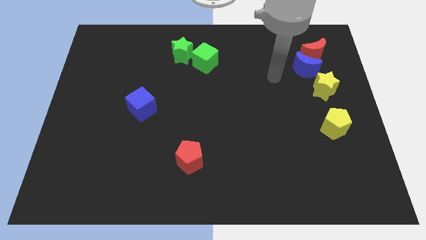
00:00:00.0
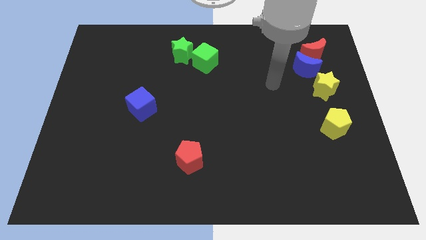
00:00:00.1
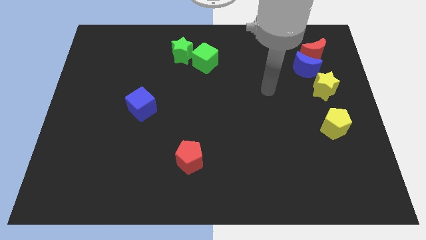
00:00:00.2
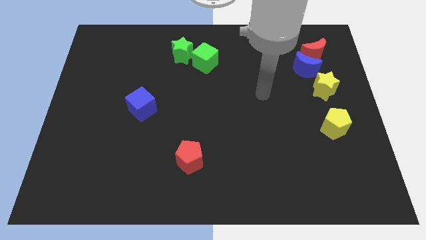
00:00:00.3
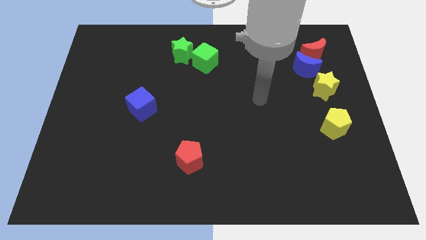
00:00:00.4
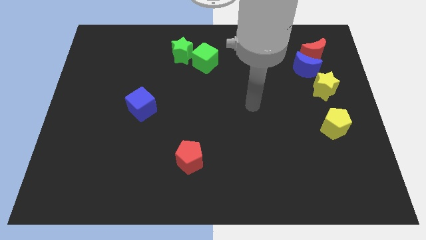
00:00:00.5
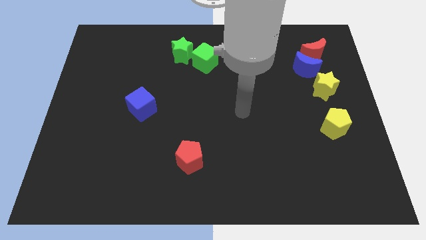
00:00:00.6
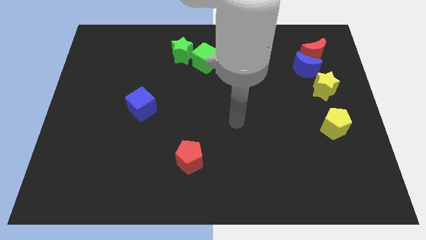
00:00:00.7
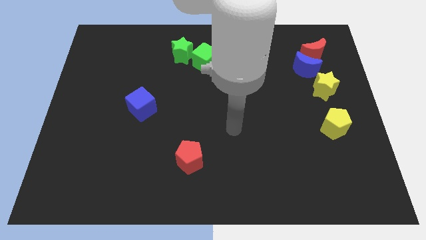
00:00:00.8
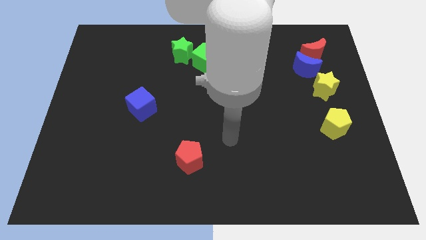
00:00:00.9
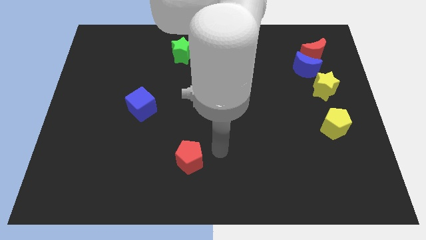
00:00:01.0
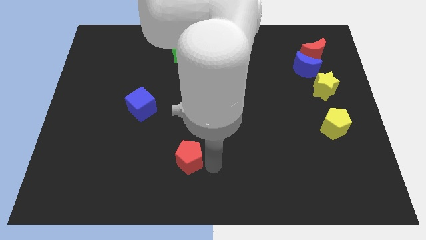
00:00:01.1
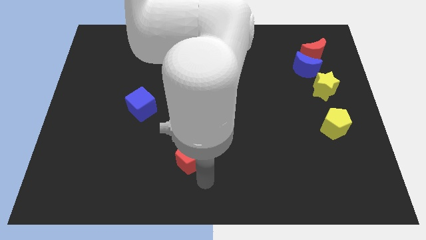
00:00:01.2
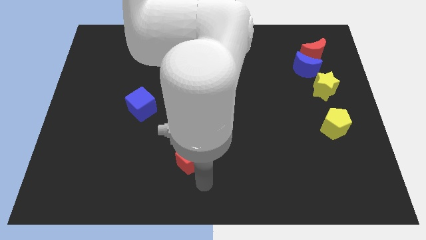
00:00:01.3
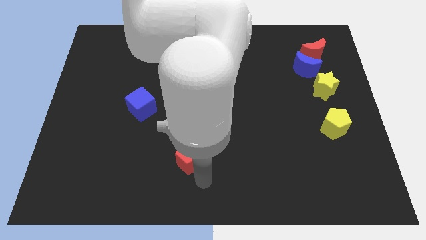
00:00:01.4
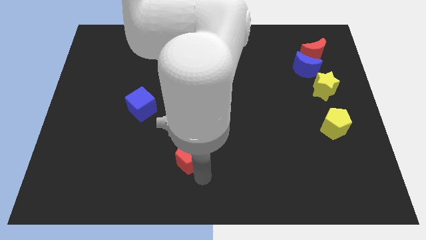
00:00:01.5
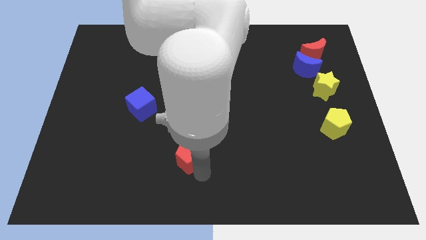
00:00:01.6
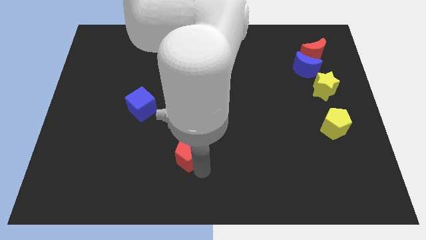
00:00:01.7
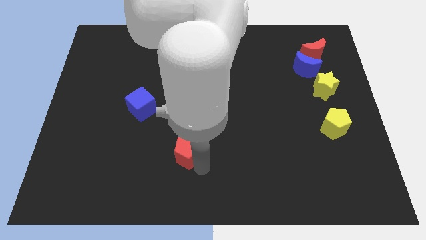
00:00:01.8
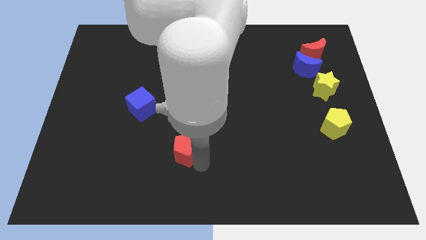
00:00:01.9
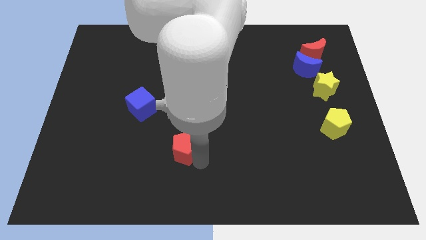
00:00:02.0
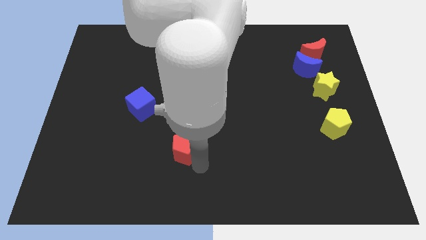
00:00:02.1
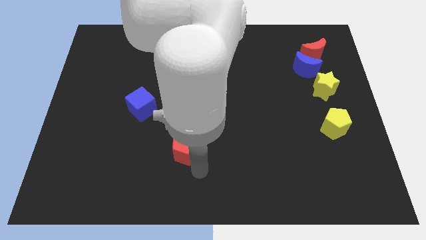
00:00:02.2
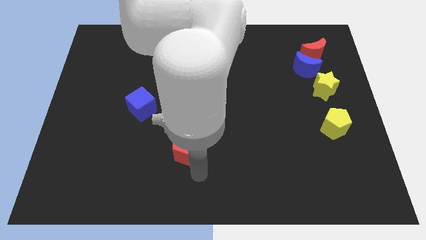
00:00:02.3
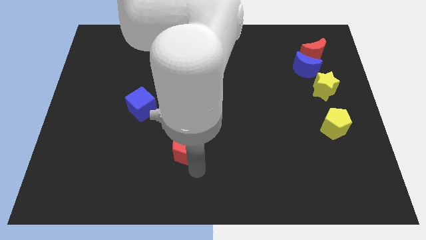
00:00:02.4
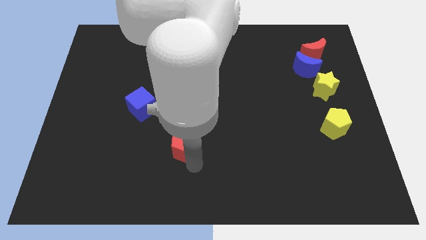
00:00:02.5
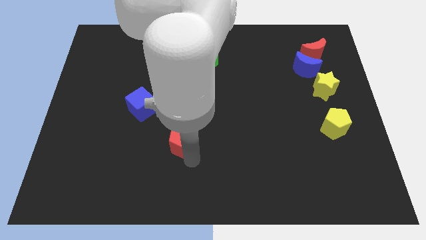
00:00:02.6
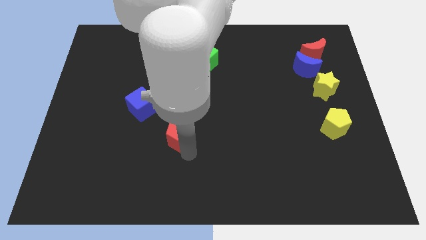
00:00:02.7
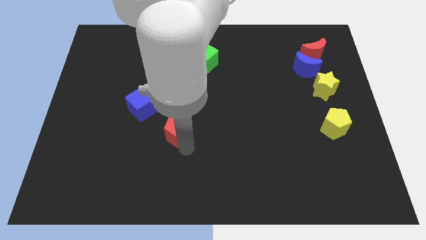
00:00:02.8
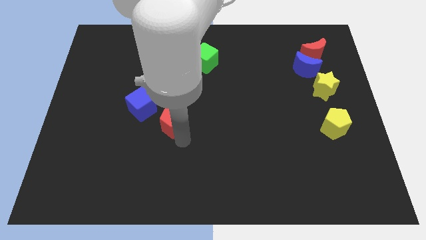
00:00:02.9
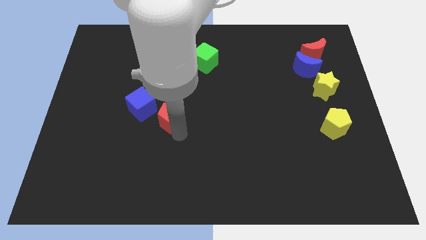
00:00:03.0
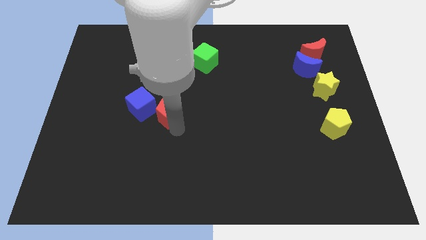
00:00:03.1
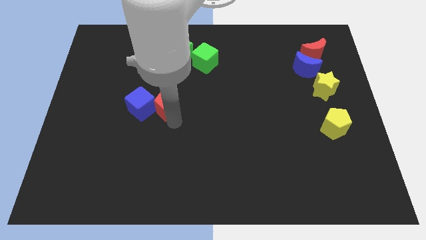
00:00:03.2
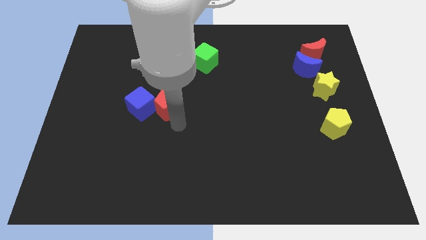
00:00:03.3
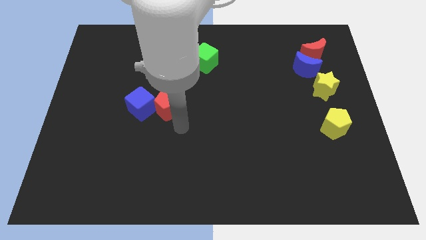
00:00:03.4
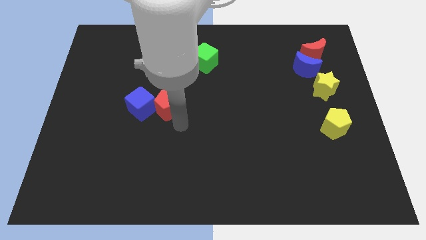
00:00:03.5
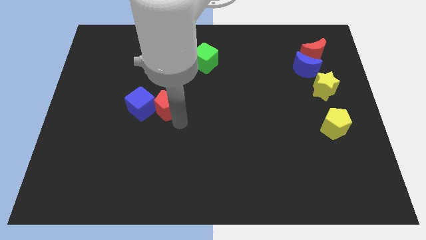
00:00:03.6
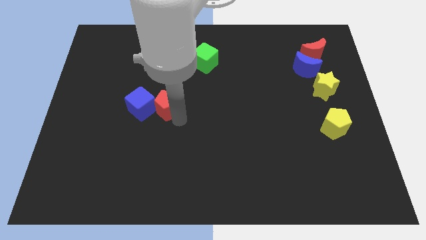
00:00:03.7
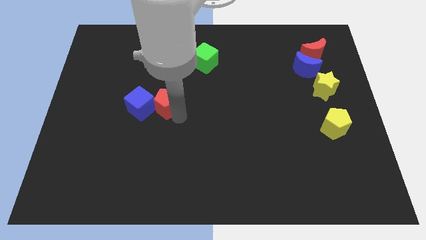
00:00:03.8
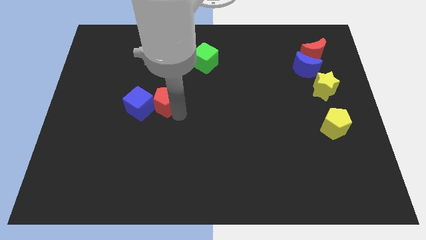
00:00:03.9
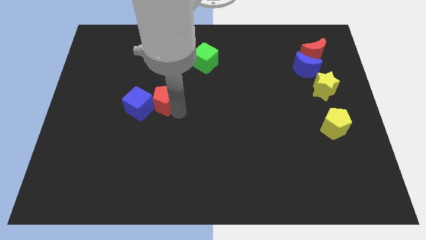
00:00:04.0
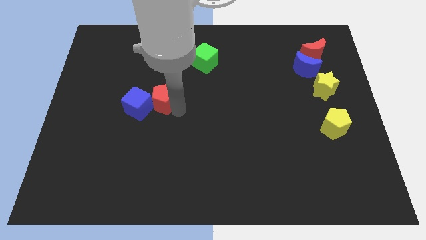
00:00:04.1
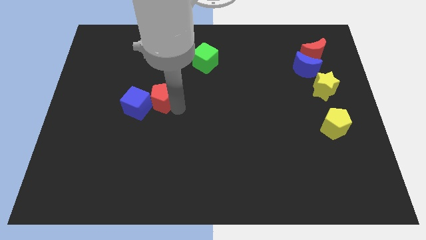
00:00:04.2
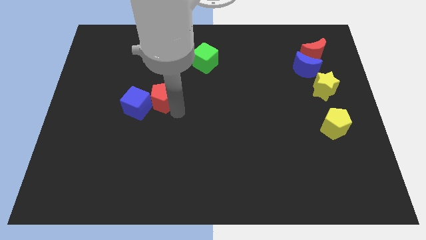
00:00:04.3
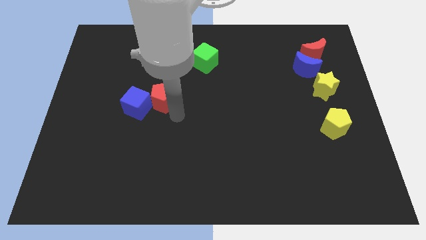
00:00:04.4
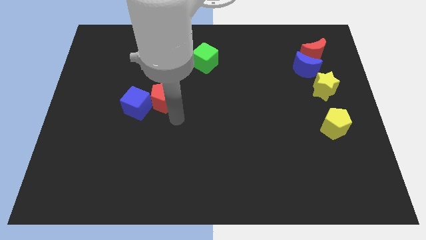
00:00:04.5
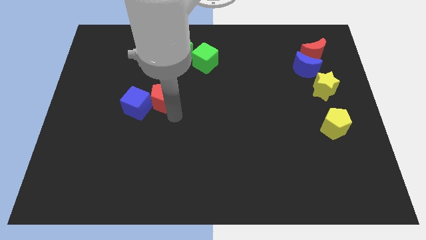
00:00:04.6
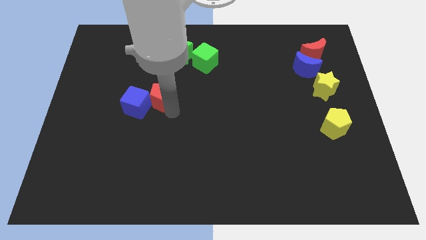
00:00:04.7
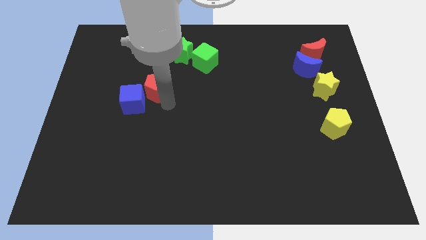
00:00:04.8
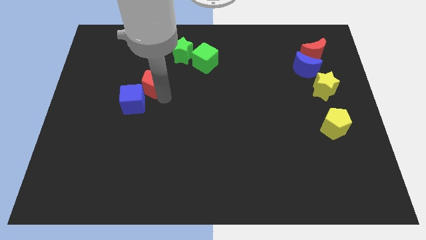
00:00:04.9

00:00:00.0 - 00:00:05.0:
push the red pentagon to the top of the blue cube

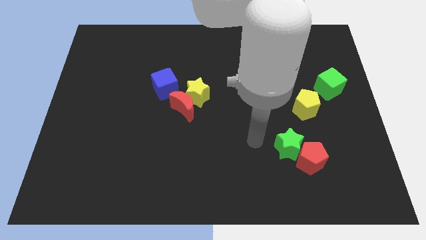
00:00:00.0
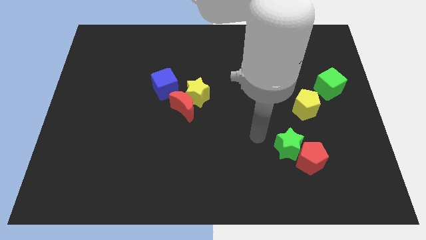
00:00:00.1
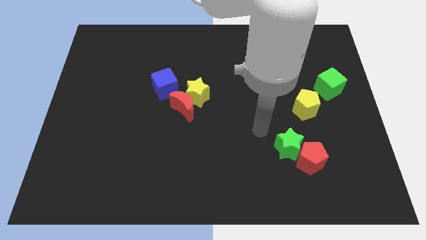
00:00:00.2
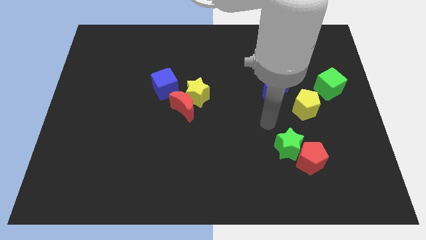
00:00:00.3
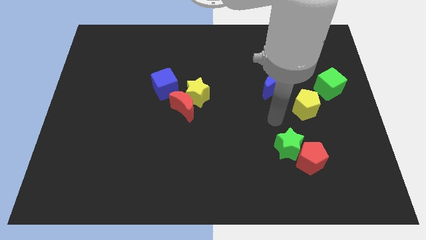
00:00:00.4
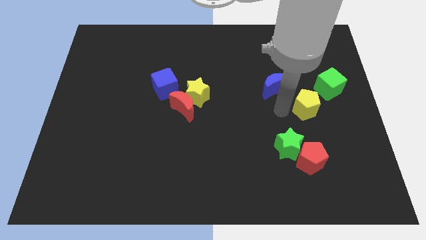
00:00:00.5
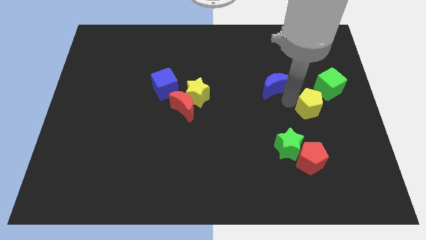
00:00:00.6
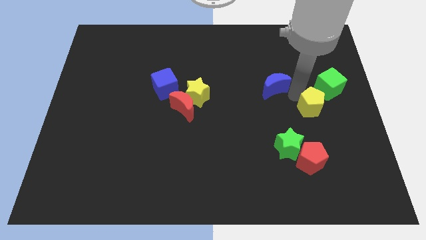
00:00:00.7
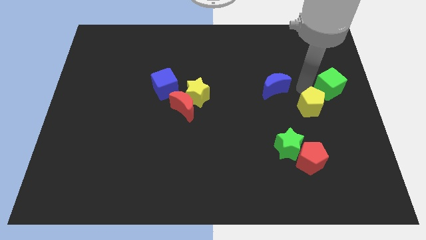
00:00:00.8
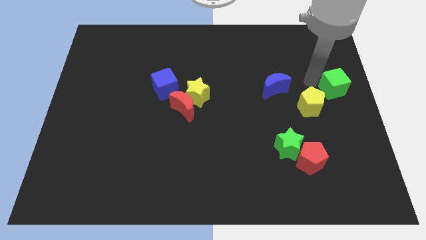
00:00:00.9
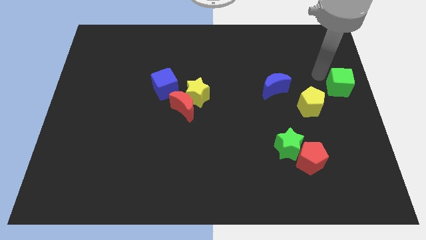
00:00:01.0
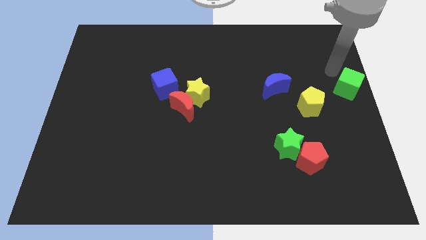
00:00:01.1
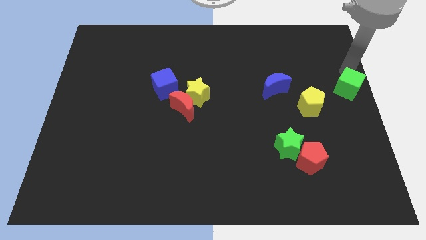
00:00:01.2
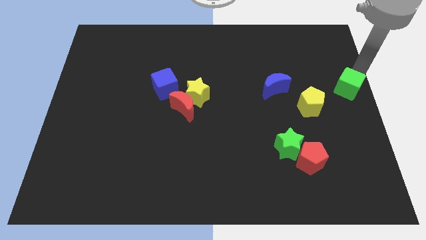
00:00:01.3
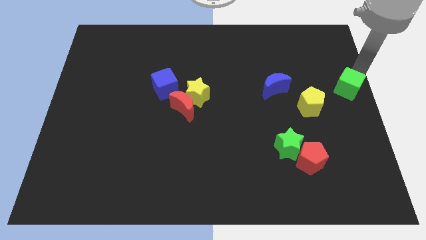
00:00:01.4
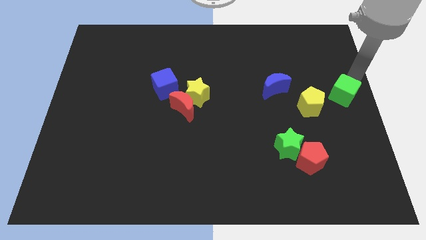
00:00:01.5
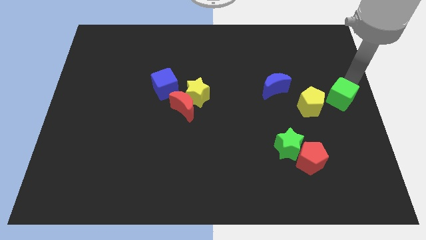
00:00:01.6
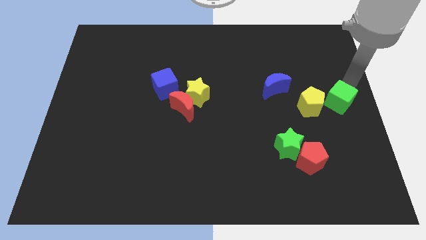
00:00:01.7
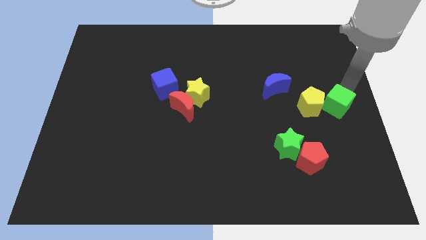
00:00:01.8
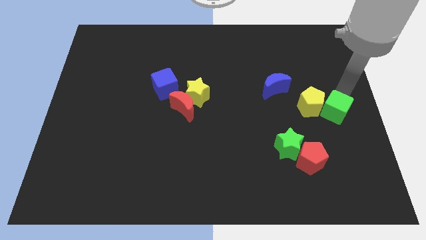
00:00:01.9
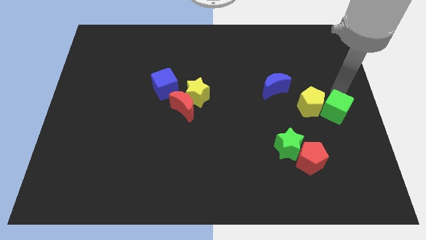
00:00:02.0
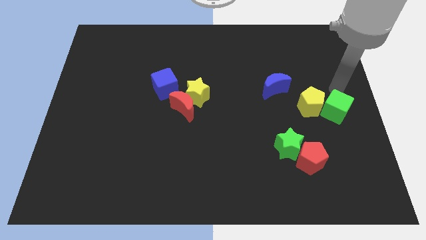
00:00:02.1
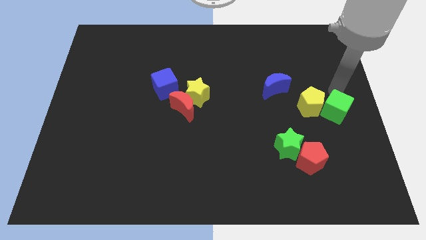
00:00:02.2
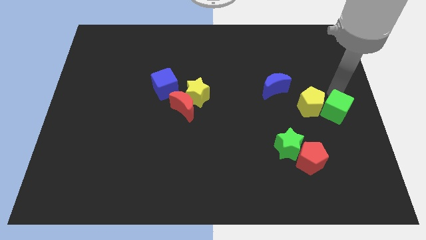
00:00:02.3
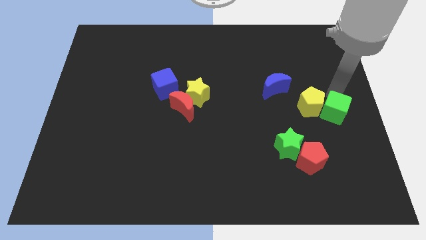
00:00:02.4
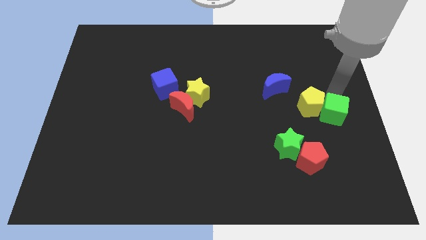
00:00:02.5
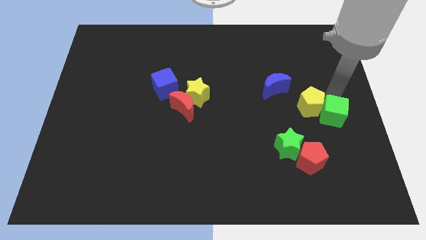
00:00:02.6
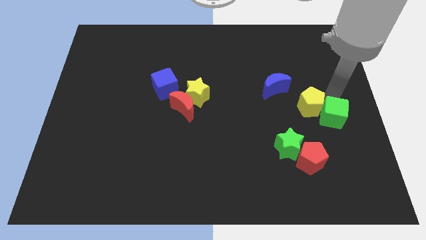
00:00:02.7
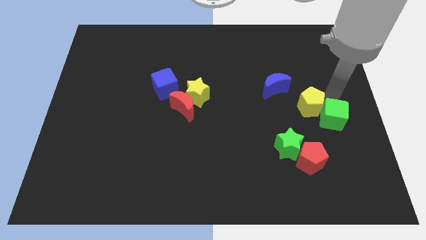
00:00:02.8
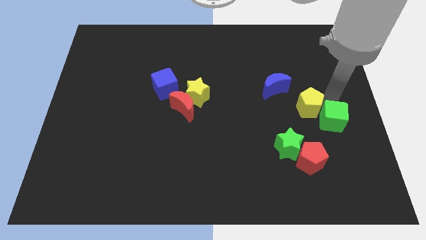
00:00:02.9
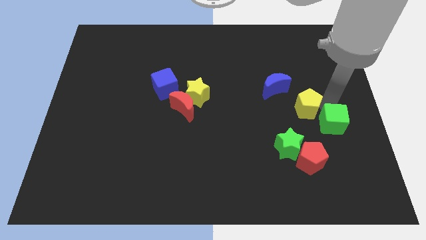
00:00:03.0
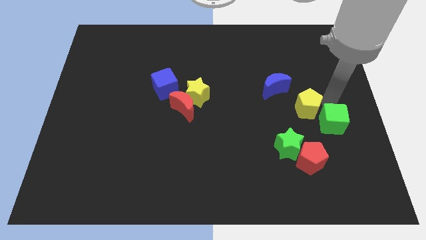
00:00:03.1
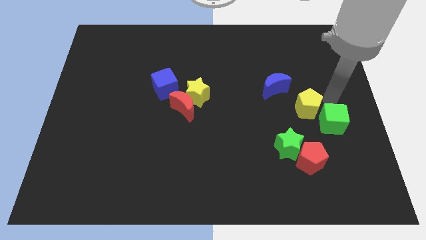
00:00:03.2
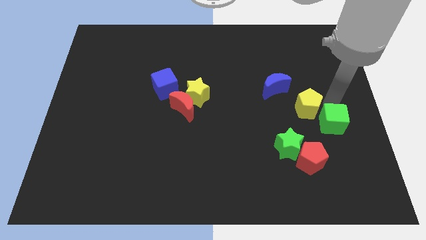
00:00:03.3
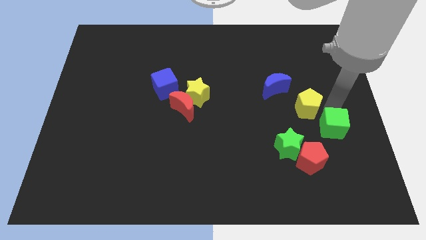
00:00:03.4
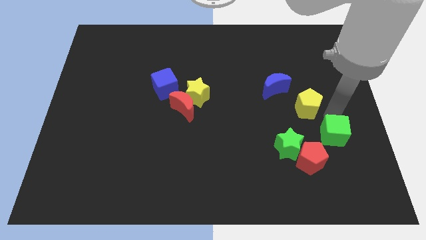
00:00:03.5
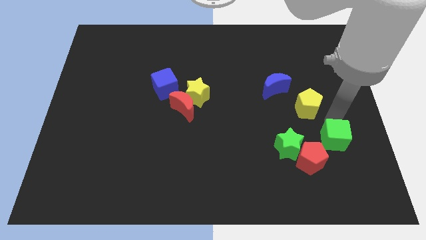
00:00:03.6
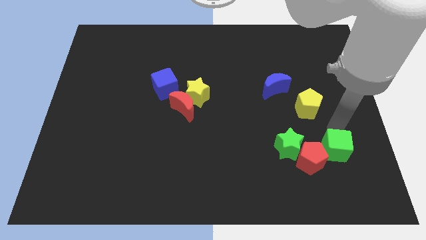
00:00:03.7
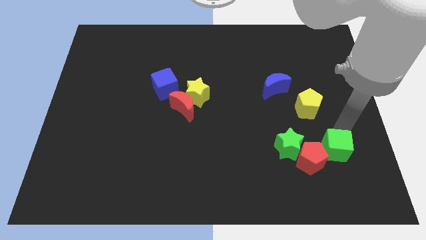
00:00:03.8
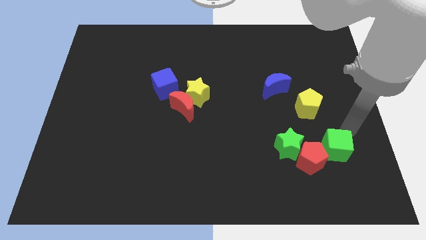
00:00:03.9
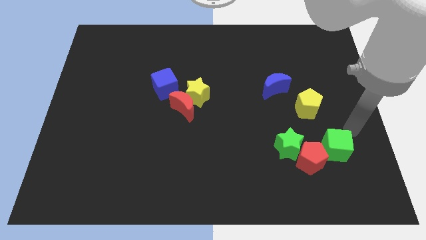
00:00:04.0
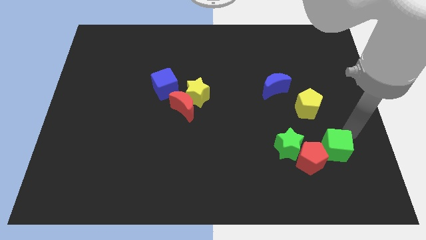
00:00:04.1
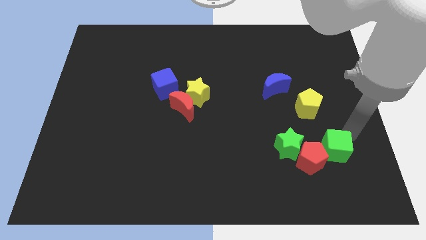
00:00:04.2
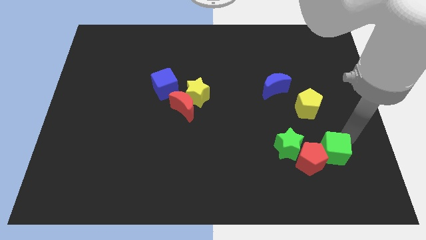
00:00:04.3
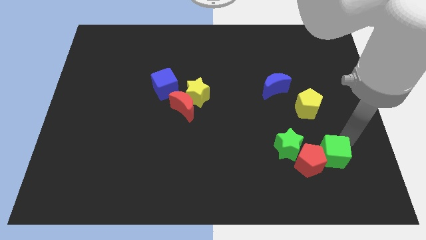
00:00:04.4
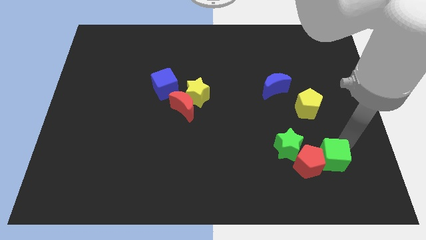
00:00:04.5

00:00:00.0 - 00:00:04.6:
move the green cube diagonally down and to the right of the green star
